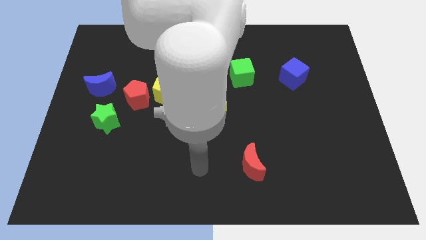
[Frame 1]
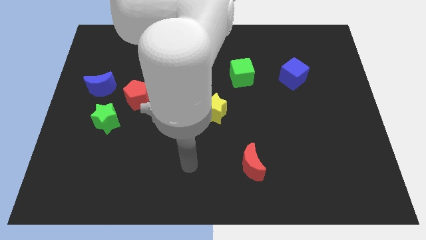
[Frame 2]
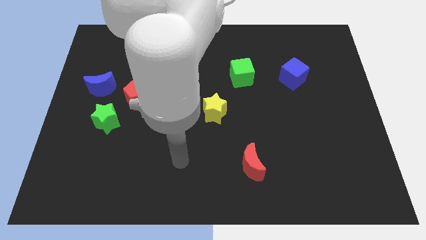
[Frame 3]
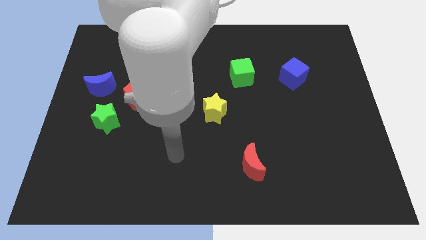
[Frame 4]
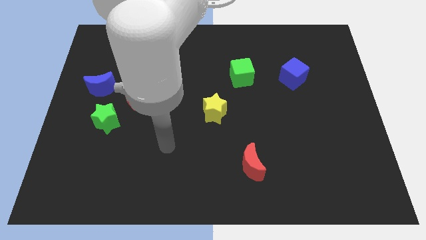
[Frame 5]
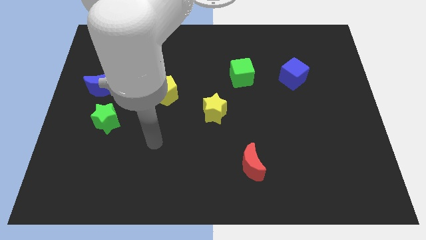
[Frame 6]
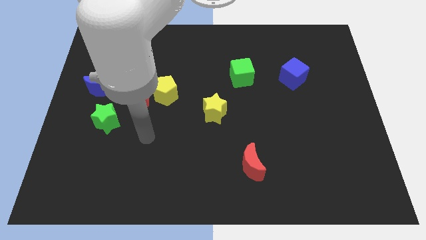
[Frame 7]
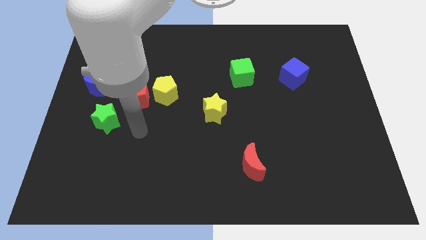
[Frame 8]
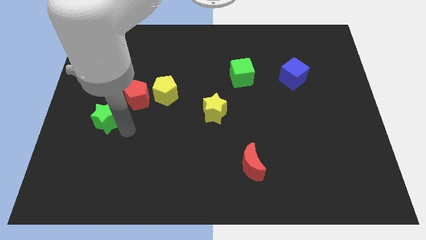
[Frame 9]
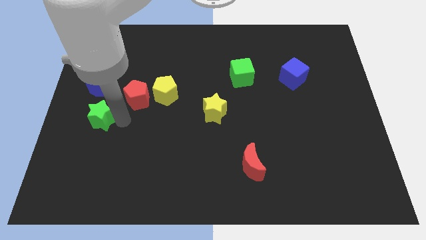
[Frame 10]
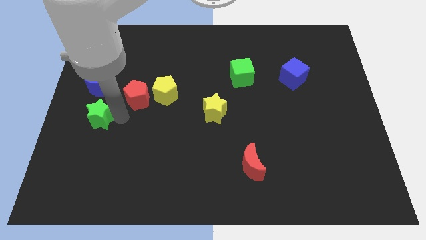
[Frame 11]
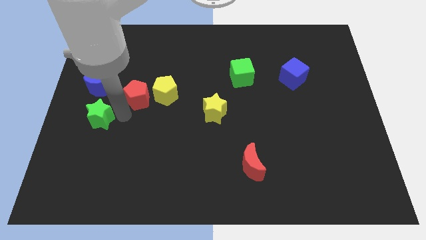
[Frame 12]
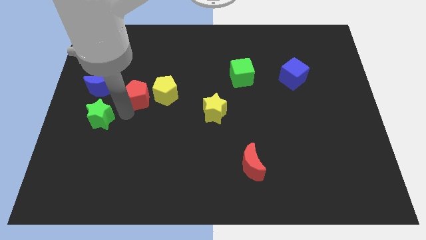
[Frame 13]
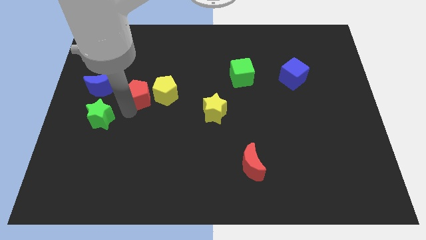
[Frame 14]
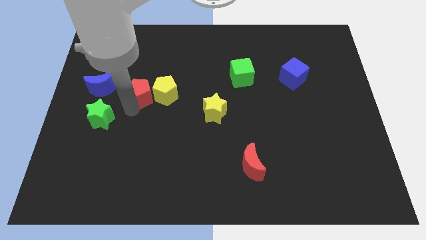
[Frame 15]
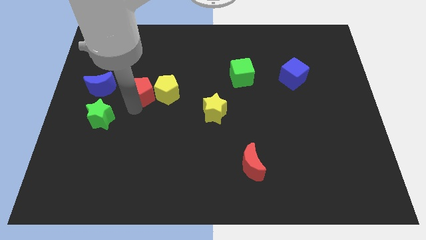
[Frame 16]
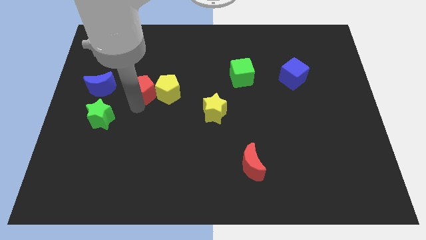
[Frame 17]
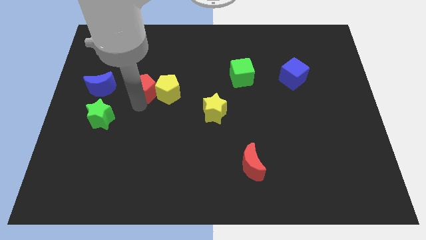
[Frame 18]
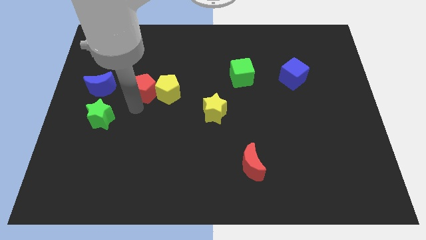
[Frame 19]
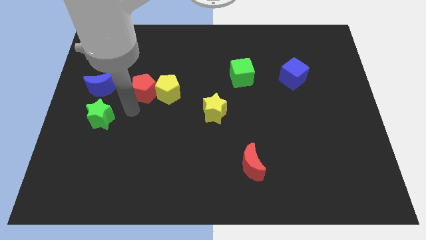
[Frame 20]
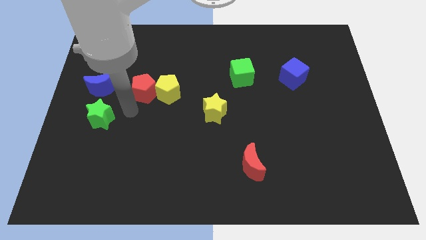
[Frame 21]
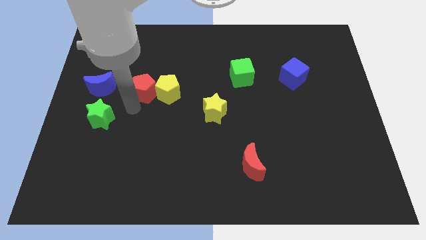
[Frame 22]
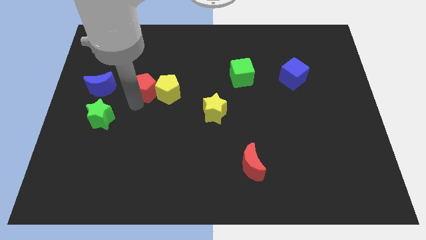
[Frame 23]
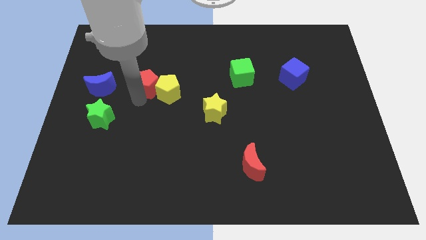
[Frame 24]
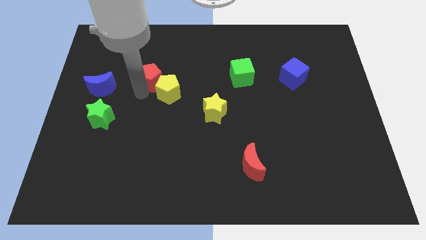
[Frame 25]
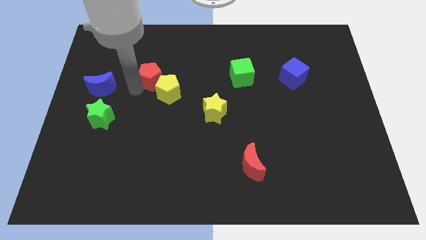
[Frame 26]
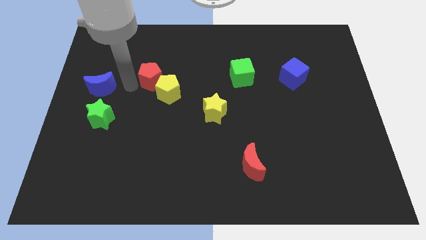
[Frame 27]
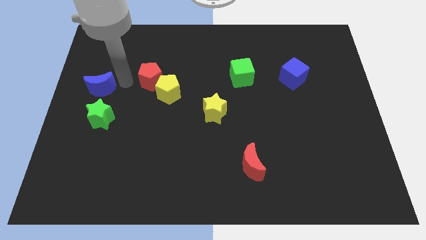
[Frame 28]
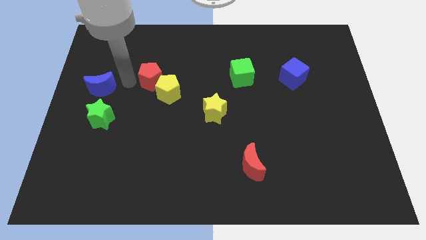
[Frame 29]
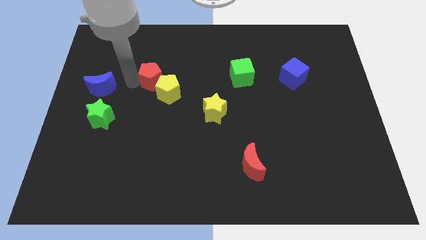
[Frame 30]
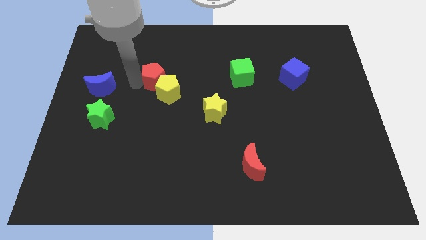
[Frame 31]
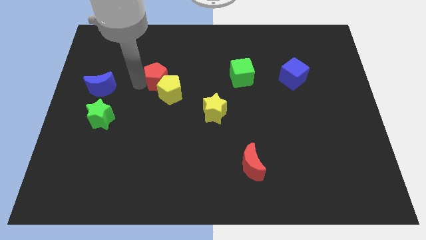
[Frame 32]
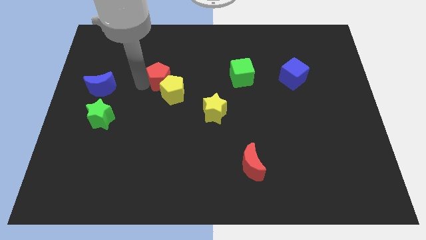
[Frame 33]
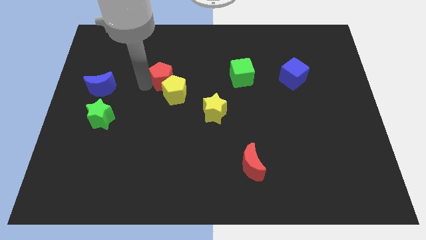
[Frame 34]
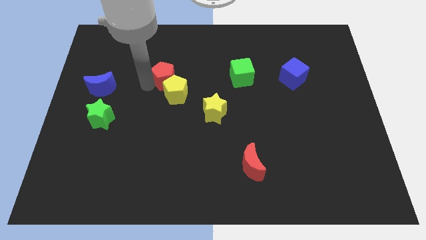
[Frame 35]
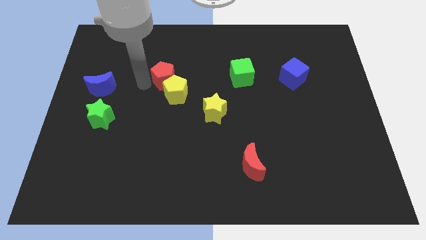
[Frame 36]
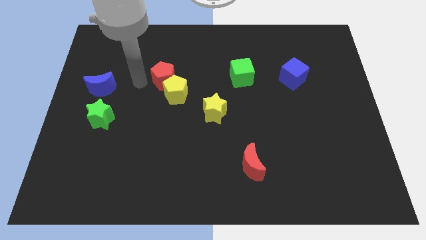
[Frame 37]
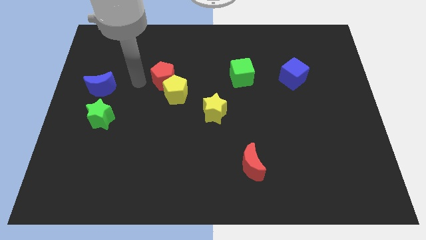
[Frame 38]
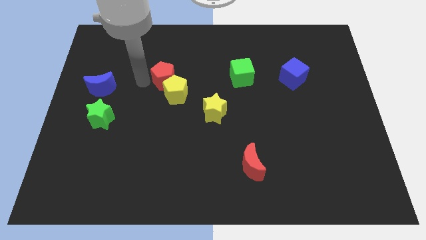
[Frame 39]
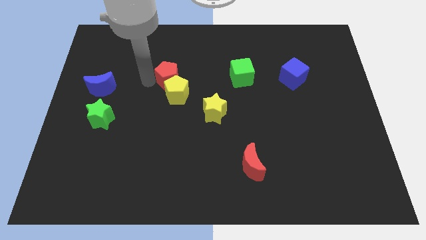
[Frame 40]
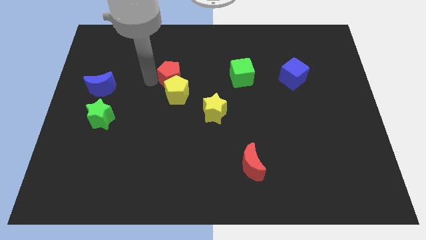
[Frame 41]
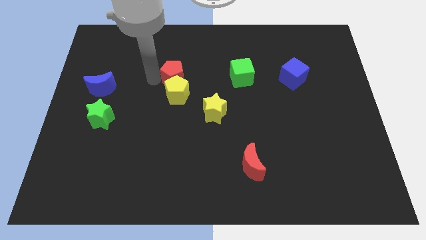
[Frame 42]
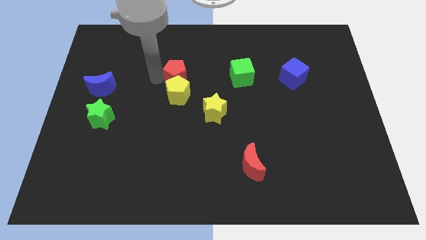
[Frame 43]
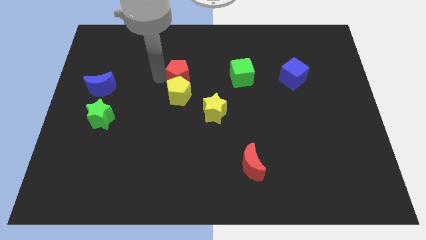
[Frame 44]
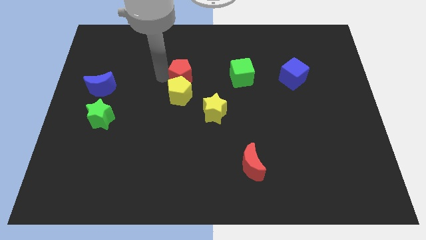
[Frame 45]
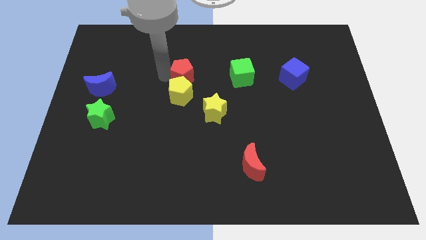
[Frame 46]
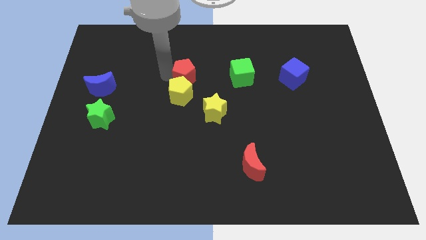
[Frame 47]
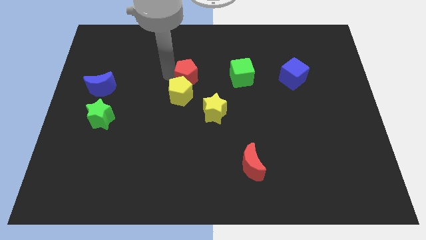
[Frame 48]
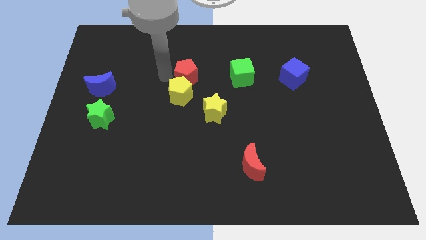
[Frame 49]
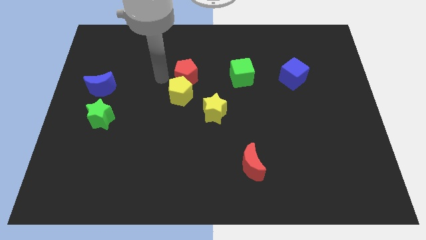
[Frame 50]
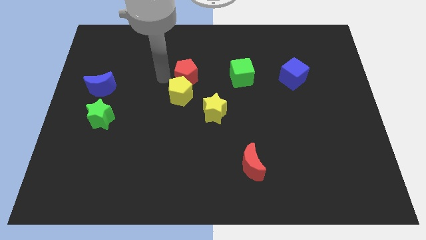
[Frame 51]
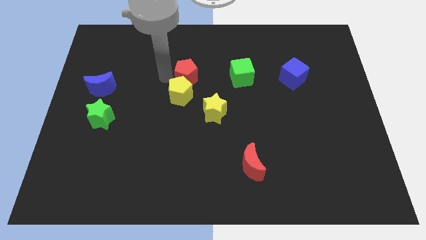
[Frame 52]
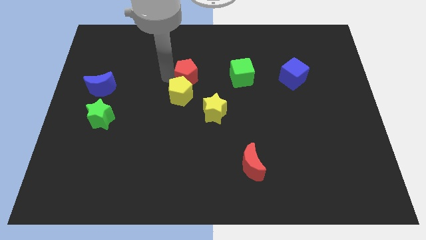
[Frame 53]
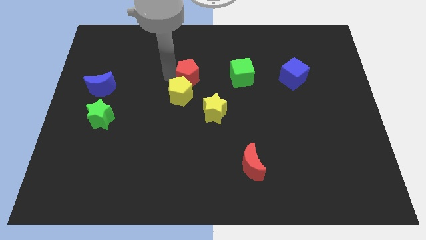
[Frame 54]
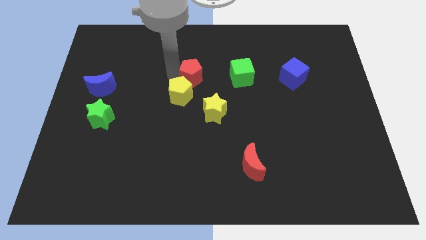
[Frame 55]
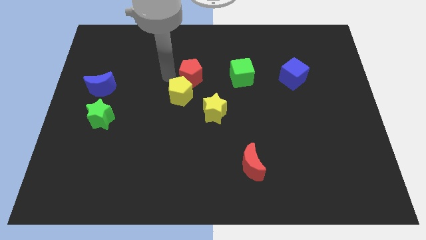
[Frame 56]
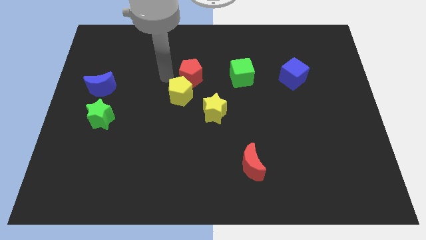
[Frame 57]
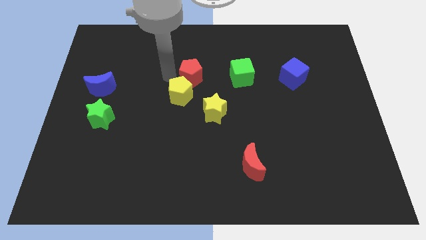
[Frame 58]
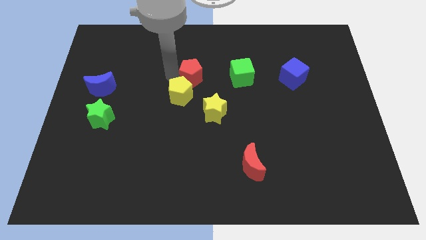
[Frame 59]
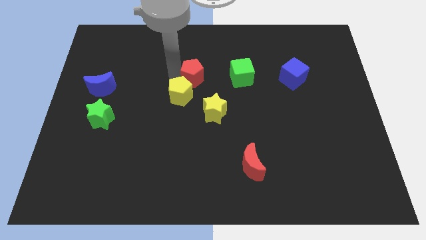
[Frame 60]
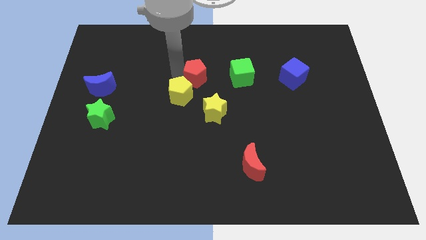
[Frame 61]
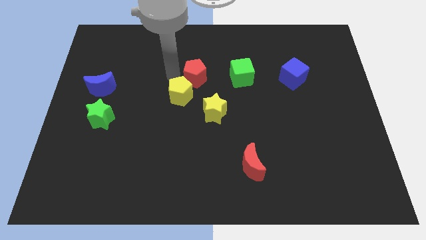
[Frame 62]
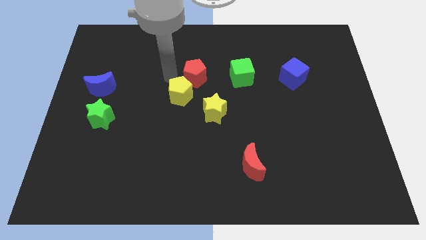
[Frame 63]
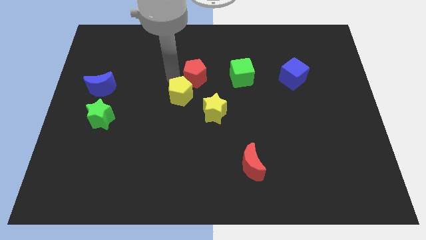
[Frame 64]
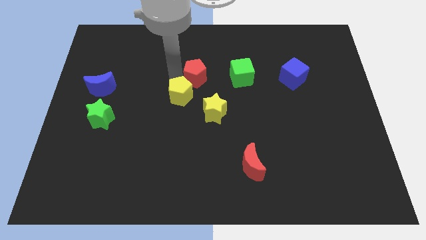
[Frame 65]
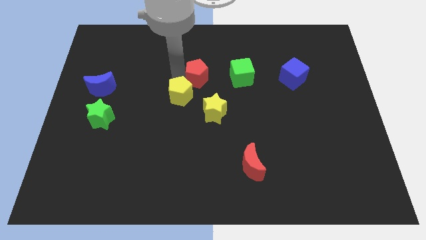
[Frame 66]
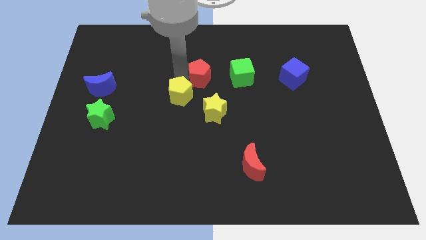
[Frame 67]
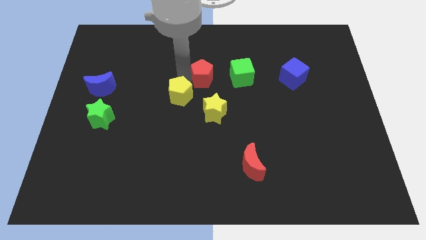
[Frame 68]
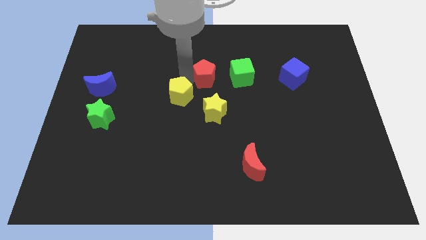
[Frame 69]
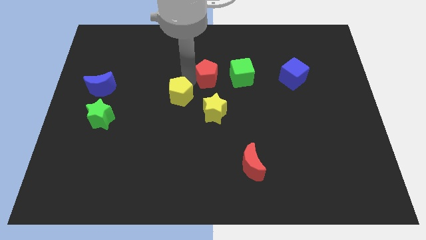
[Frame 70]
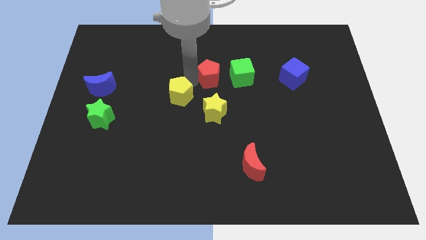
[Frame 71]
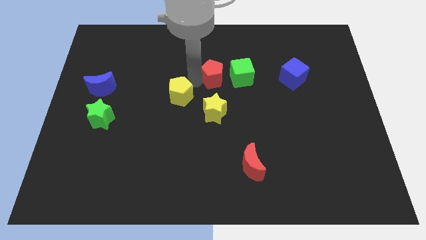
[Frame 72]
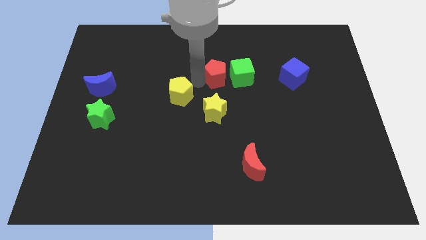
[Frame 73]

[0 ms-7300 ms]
put the red pentagon to the green cube

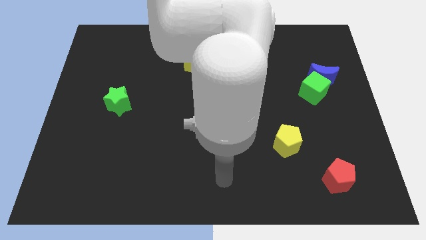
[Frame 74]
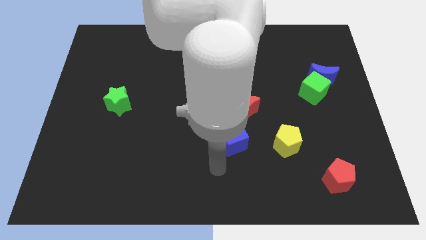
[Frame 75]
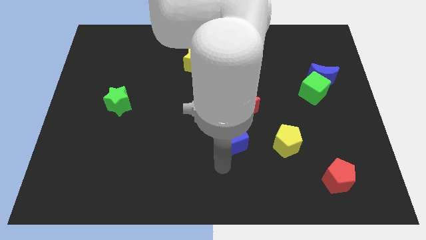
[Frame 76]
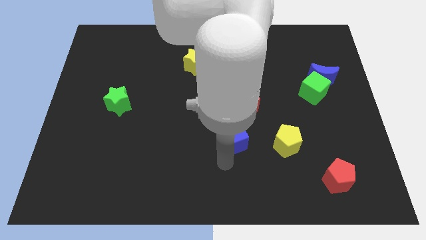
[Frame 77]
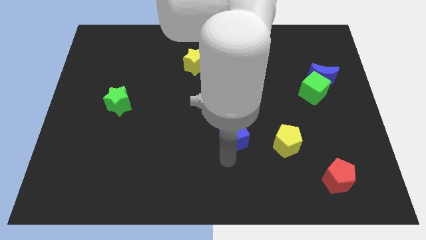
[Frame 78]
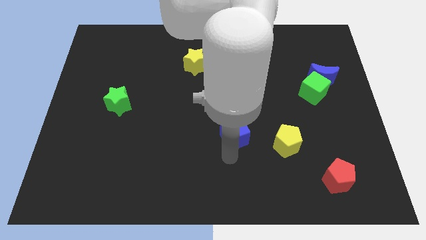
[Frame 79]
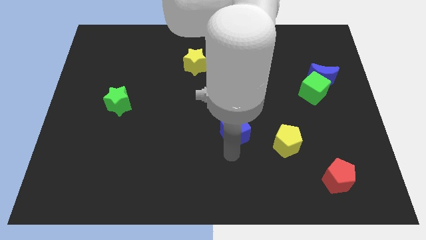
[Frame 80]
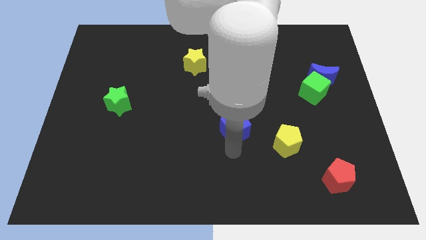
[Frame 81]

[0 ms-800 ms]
put the blue cube to the red moon
